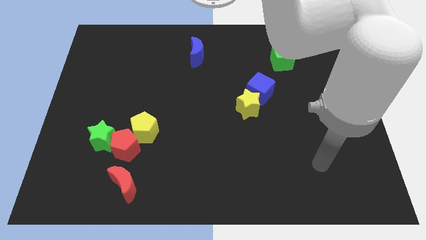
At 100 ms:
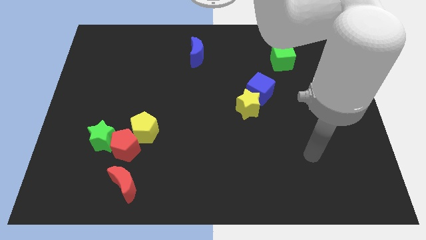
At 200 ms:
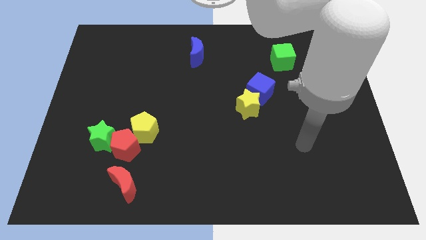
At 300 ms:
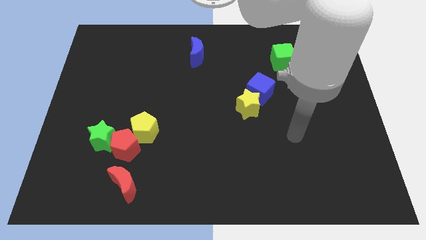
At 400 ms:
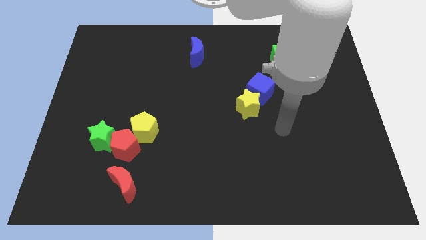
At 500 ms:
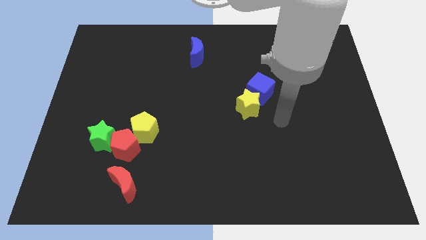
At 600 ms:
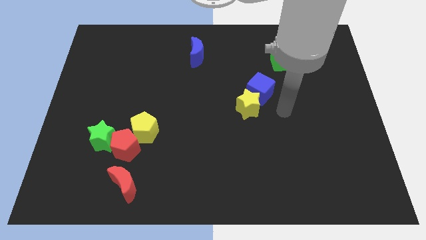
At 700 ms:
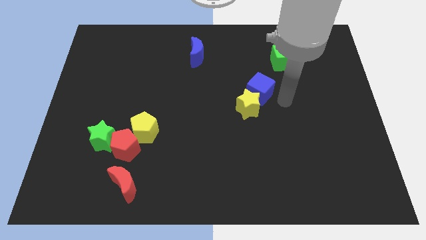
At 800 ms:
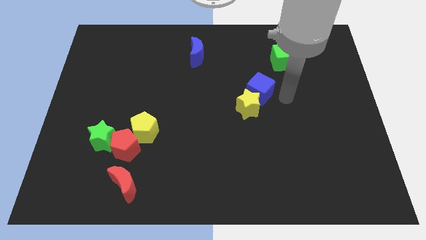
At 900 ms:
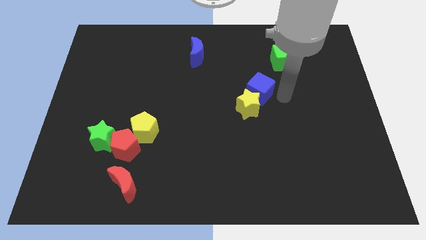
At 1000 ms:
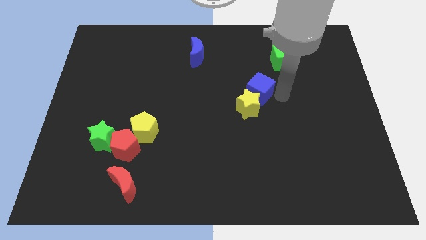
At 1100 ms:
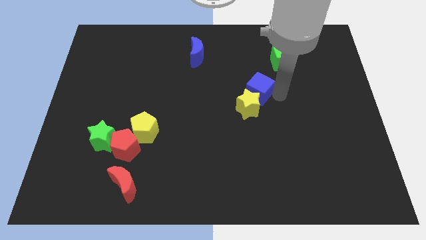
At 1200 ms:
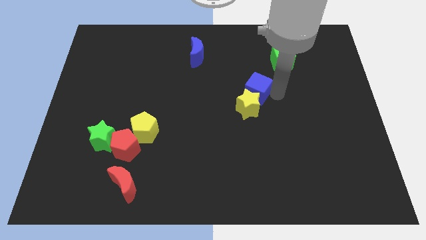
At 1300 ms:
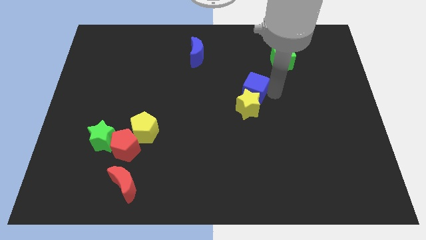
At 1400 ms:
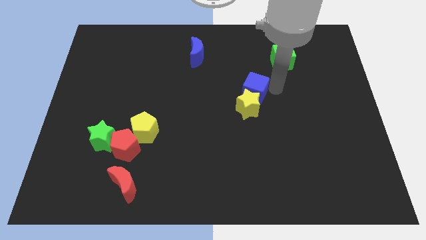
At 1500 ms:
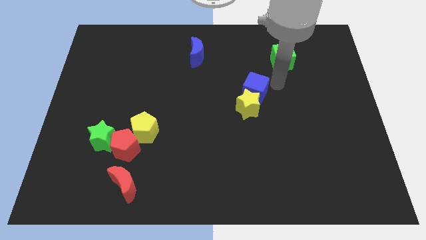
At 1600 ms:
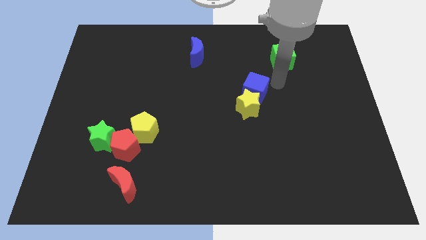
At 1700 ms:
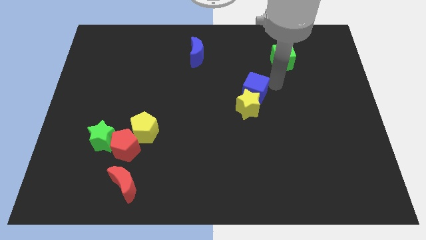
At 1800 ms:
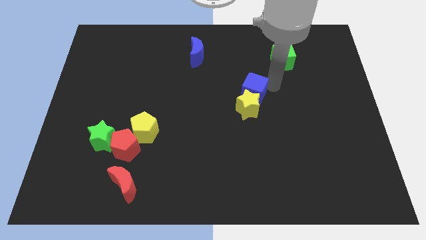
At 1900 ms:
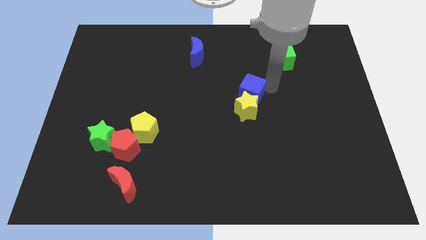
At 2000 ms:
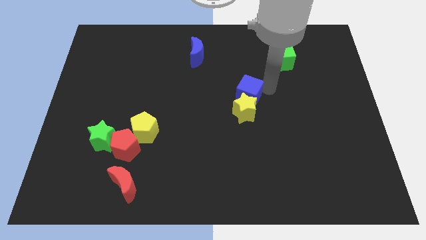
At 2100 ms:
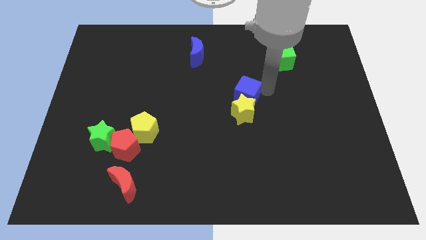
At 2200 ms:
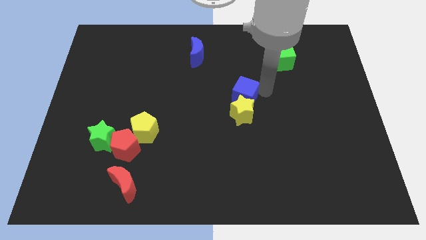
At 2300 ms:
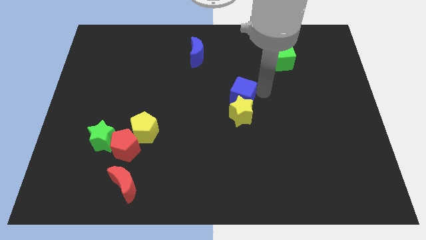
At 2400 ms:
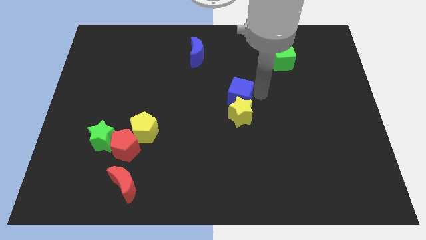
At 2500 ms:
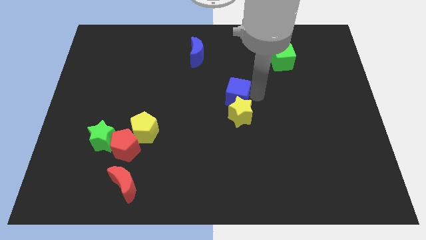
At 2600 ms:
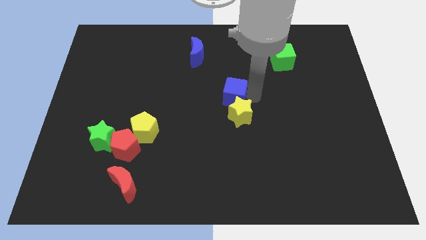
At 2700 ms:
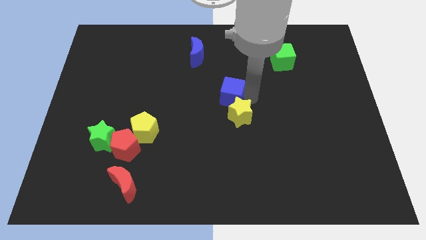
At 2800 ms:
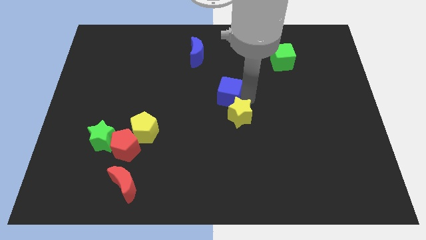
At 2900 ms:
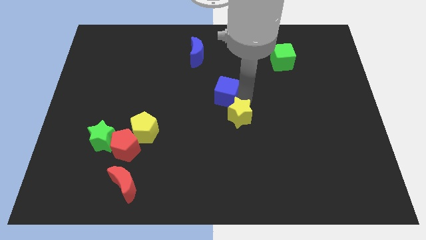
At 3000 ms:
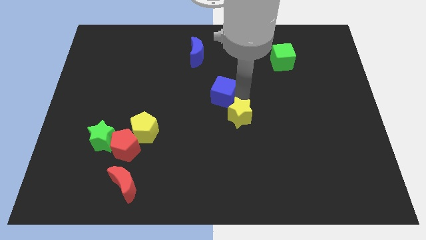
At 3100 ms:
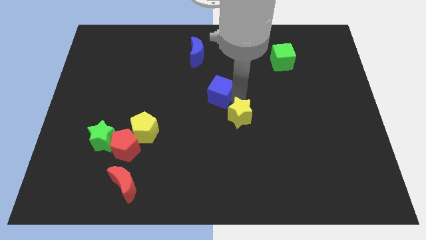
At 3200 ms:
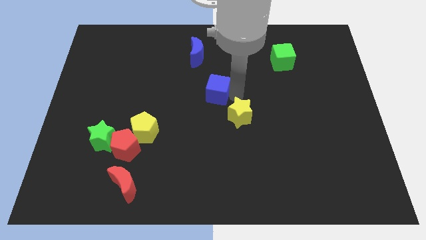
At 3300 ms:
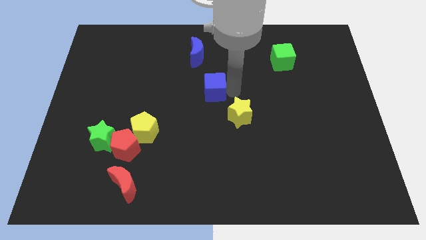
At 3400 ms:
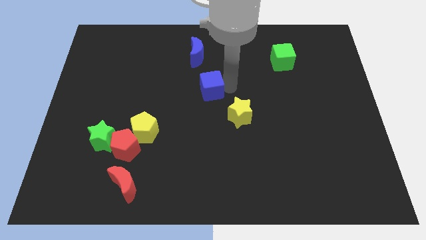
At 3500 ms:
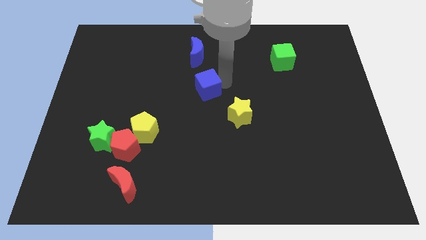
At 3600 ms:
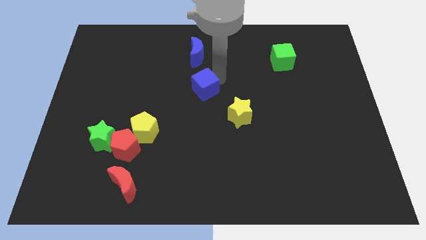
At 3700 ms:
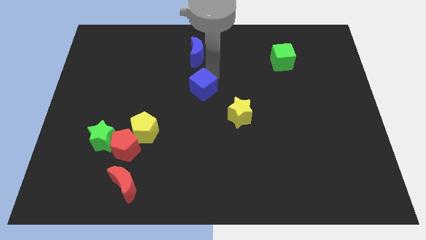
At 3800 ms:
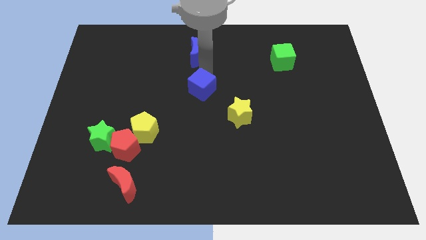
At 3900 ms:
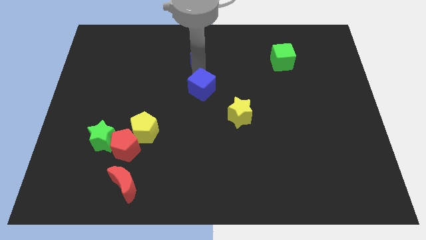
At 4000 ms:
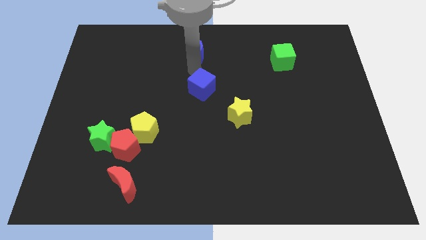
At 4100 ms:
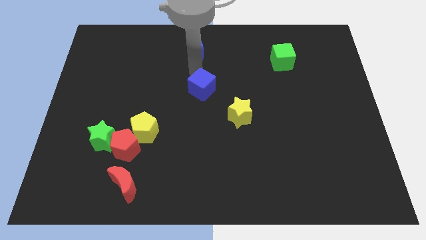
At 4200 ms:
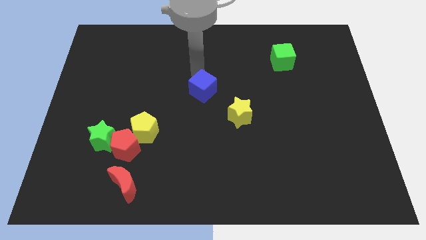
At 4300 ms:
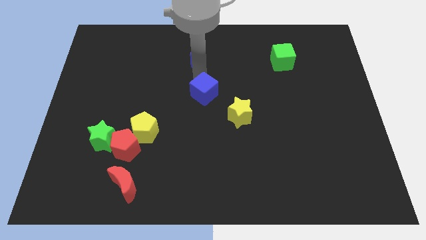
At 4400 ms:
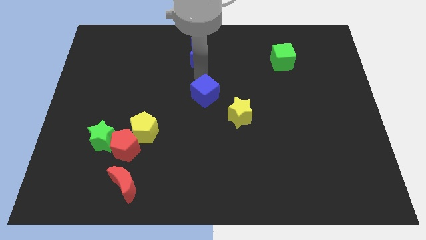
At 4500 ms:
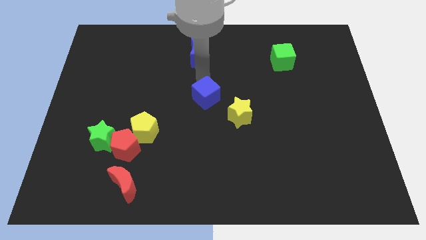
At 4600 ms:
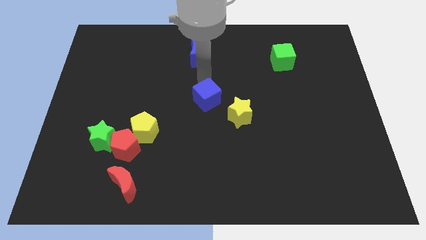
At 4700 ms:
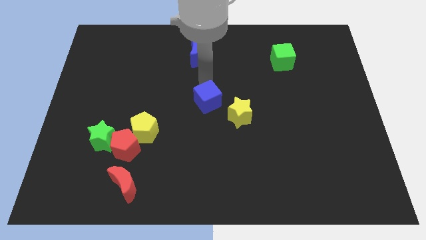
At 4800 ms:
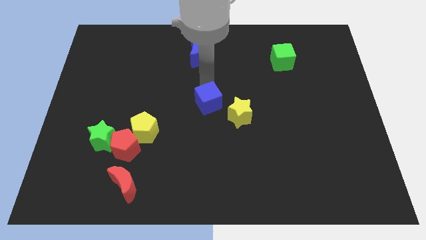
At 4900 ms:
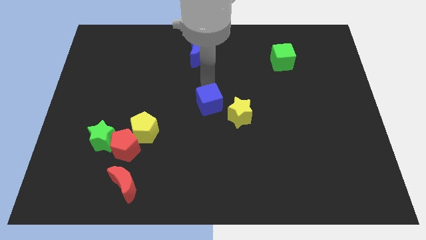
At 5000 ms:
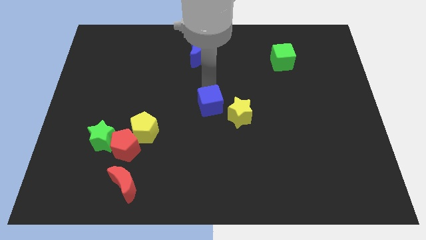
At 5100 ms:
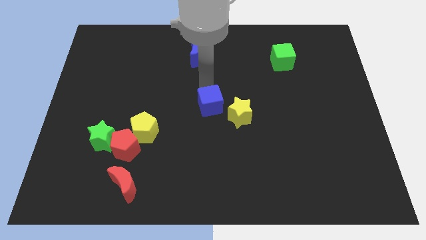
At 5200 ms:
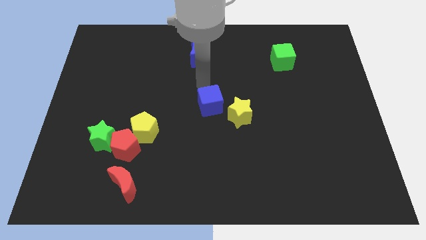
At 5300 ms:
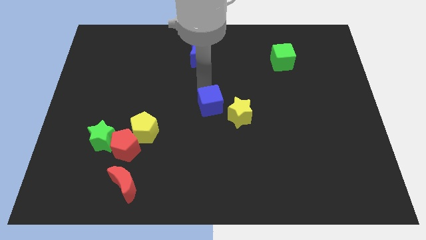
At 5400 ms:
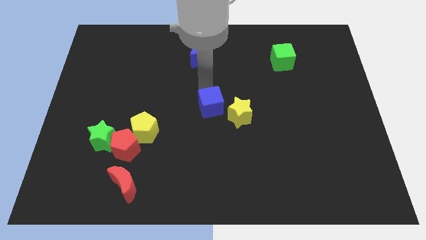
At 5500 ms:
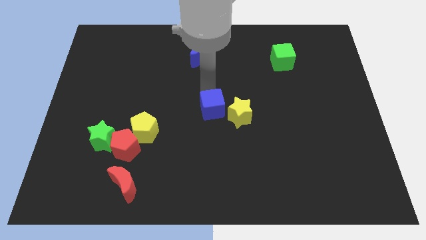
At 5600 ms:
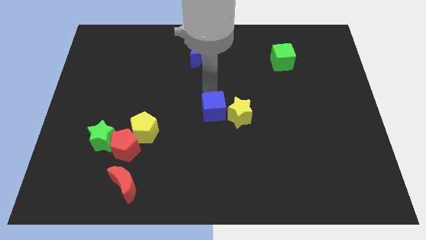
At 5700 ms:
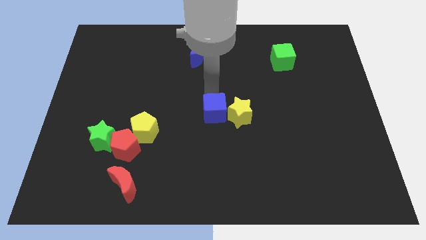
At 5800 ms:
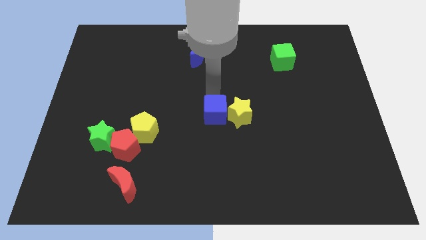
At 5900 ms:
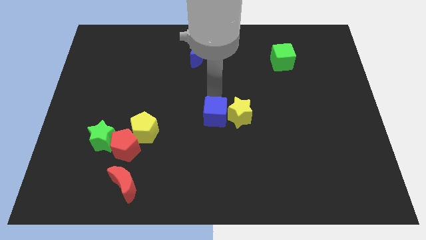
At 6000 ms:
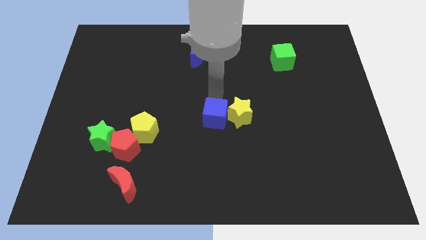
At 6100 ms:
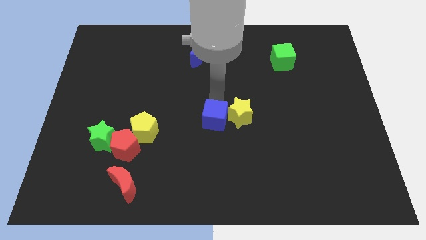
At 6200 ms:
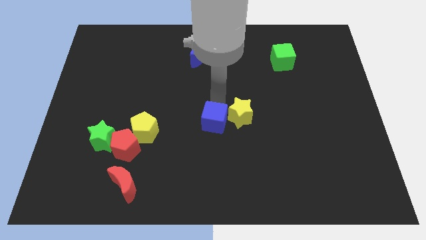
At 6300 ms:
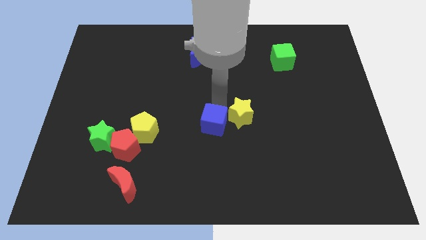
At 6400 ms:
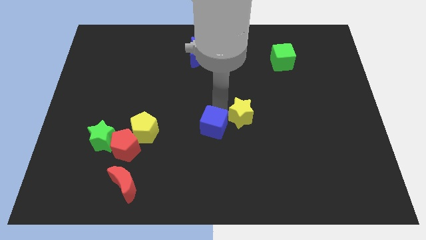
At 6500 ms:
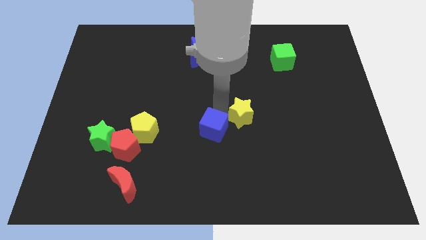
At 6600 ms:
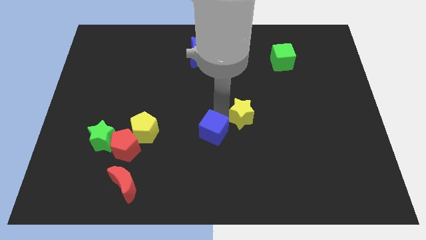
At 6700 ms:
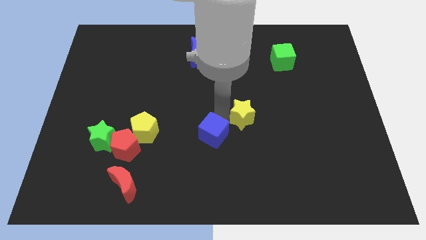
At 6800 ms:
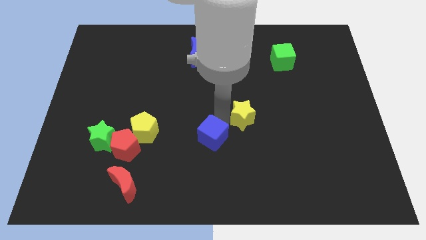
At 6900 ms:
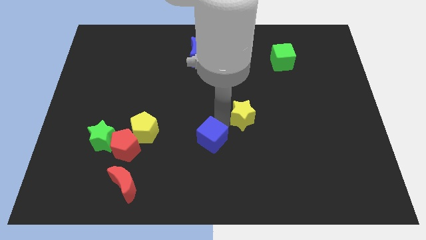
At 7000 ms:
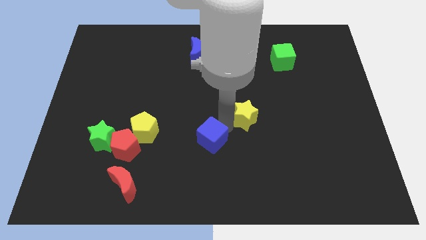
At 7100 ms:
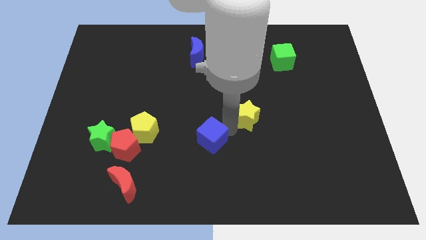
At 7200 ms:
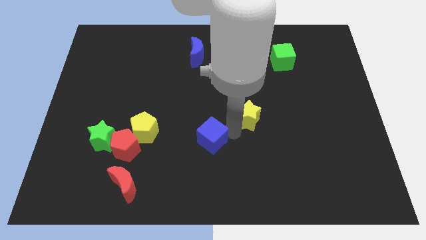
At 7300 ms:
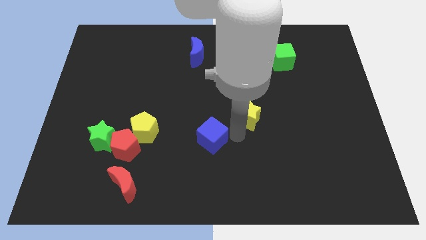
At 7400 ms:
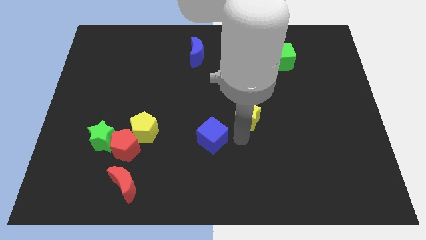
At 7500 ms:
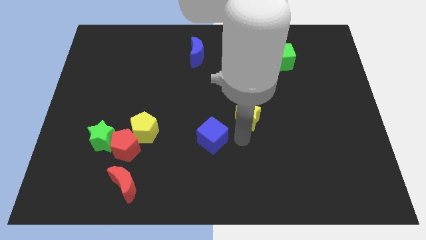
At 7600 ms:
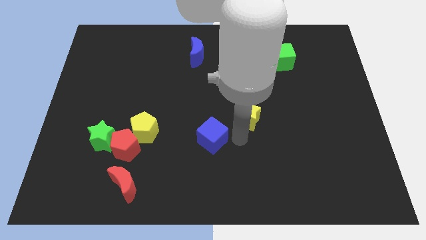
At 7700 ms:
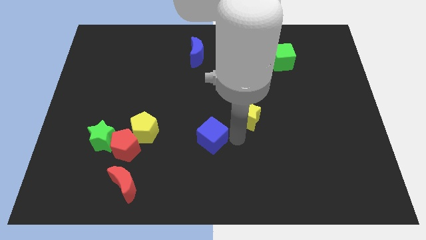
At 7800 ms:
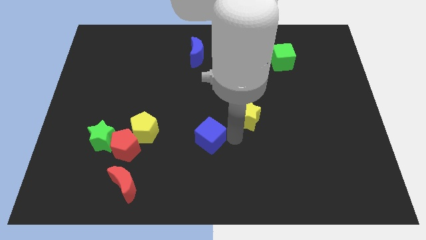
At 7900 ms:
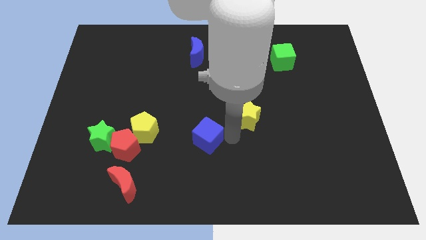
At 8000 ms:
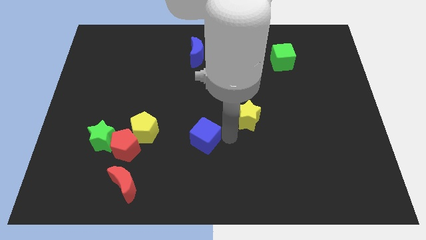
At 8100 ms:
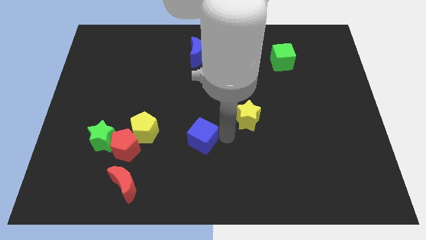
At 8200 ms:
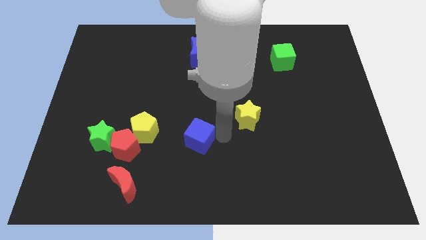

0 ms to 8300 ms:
push the blue cube downwards and then to the left
